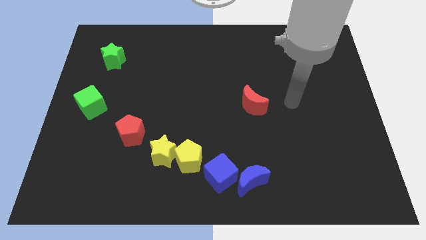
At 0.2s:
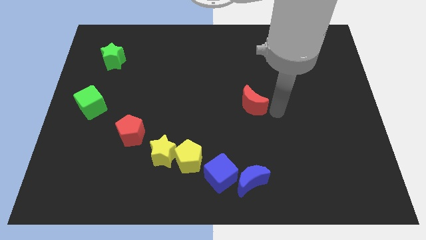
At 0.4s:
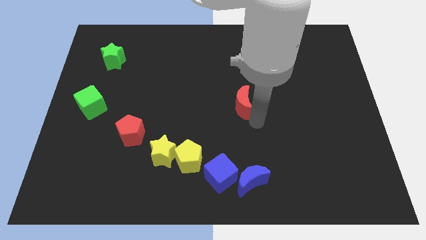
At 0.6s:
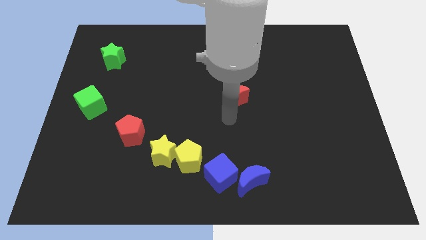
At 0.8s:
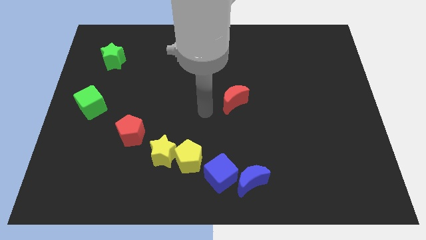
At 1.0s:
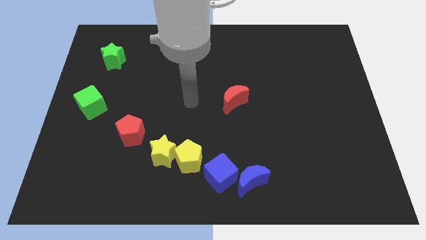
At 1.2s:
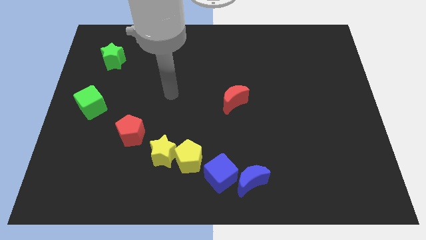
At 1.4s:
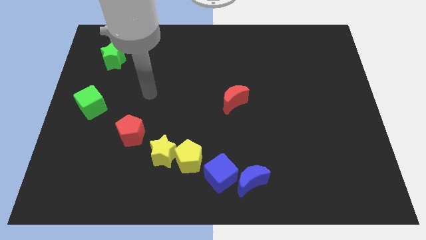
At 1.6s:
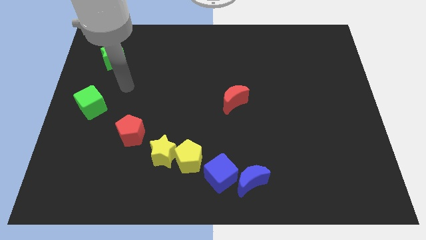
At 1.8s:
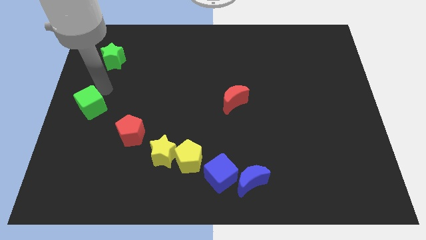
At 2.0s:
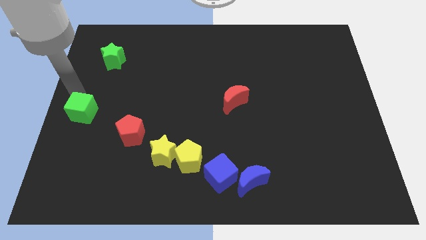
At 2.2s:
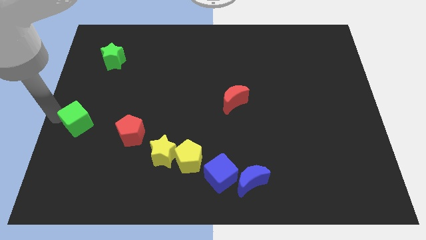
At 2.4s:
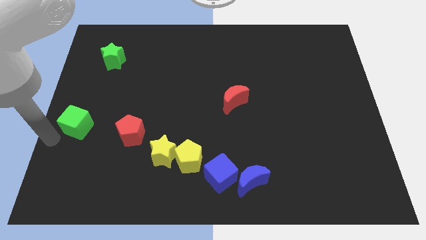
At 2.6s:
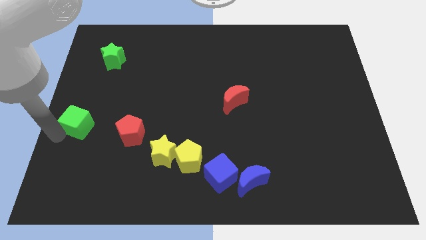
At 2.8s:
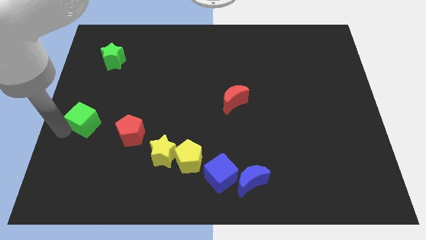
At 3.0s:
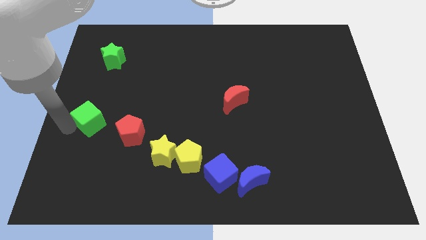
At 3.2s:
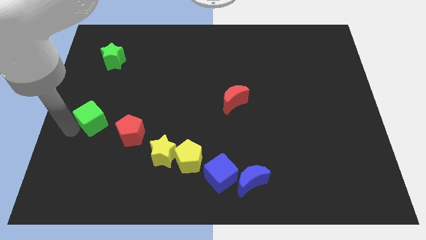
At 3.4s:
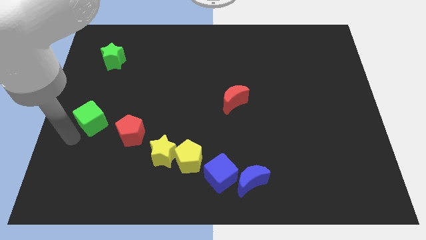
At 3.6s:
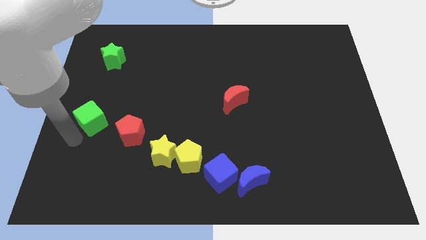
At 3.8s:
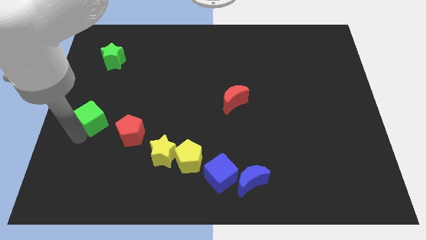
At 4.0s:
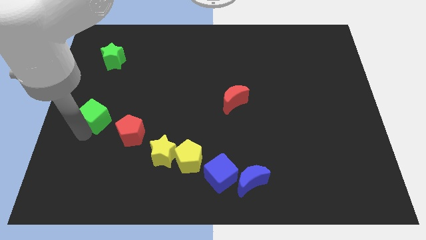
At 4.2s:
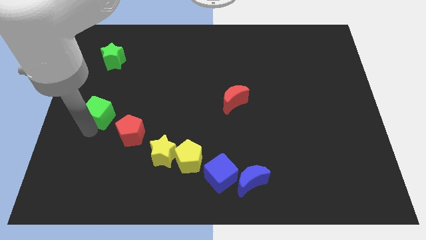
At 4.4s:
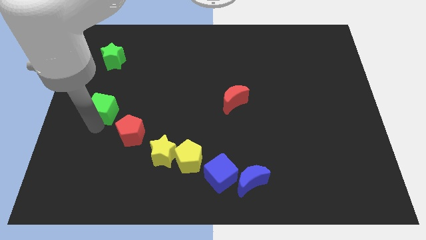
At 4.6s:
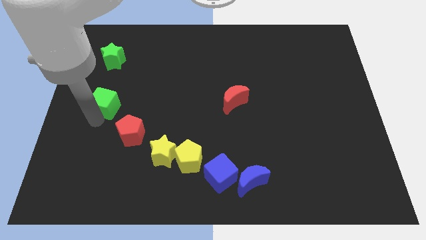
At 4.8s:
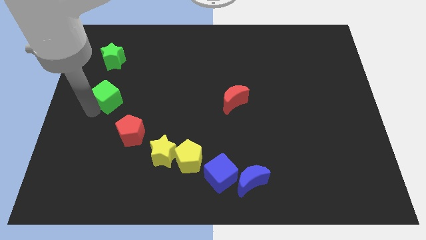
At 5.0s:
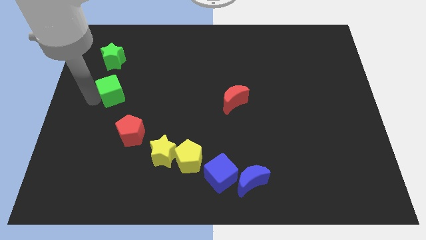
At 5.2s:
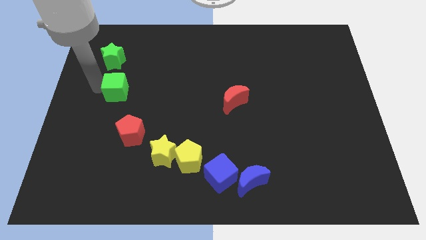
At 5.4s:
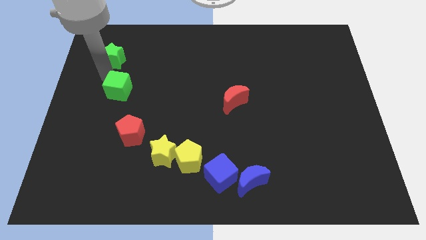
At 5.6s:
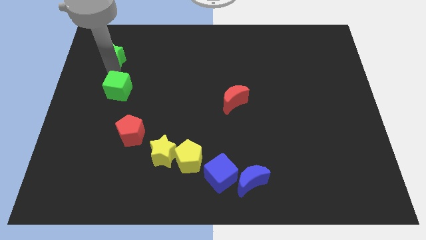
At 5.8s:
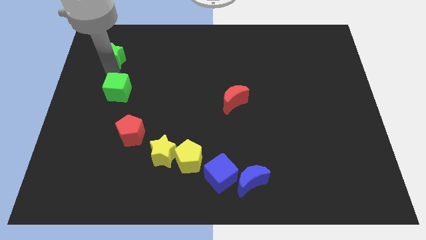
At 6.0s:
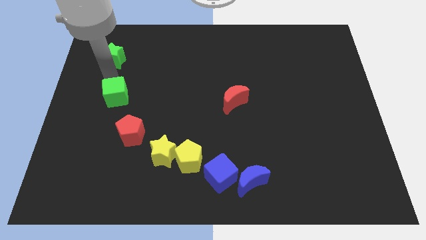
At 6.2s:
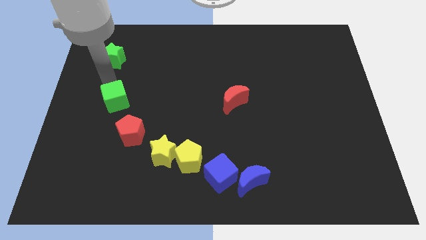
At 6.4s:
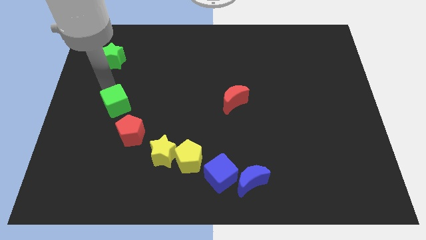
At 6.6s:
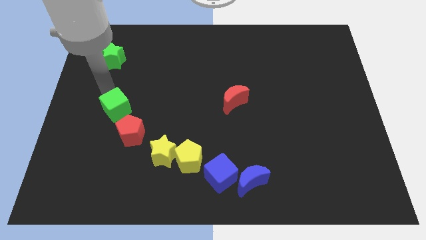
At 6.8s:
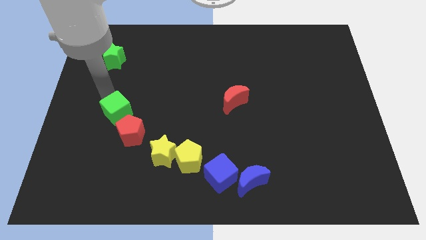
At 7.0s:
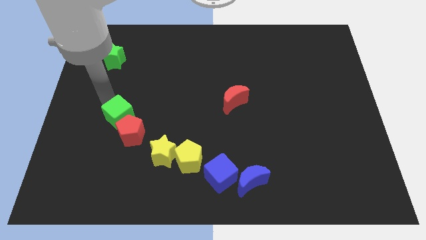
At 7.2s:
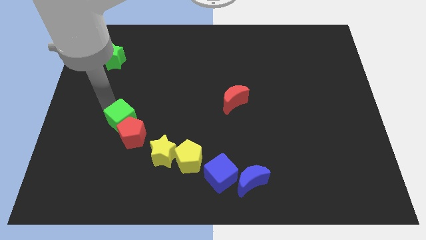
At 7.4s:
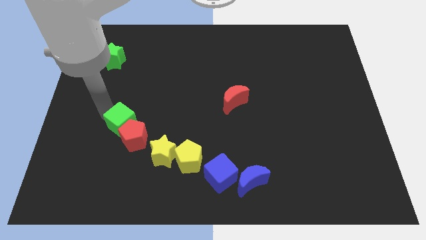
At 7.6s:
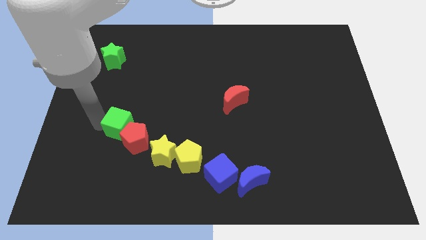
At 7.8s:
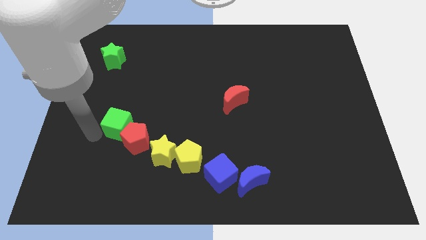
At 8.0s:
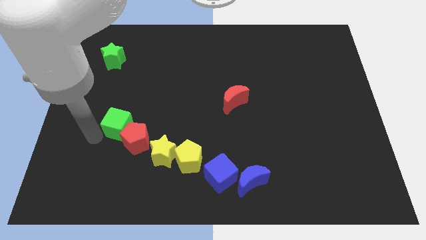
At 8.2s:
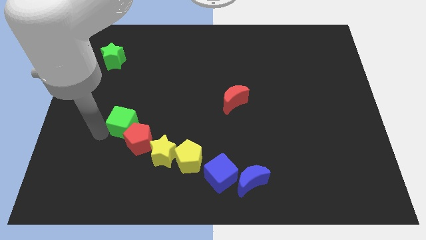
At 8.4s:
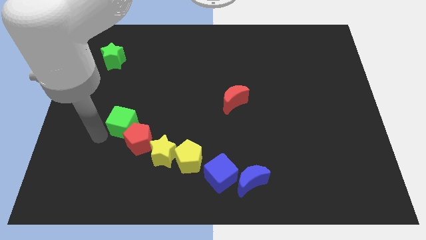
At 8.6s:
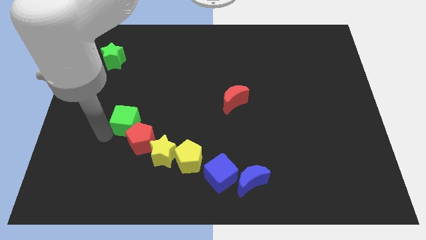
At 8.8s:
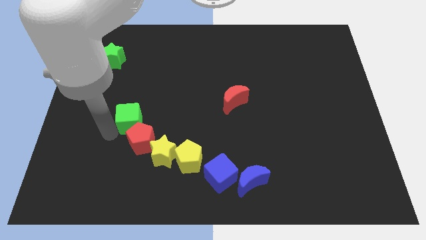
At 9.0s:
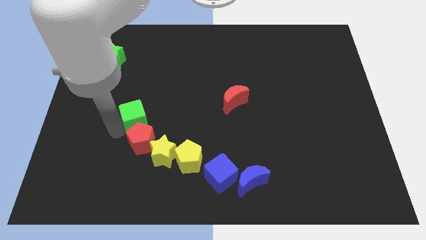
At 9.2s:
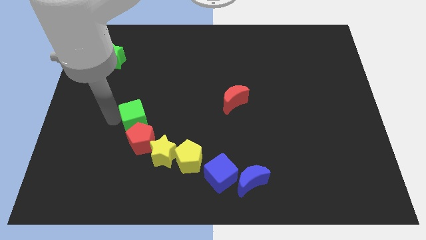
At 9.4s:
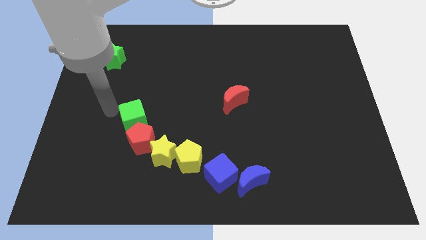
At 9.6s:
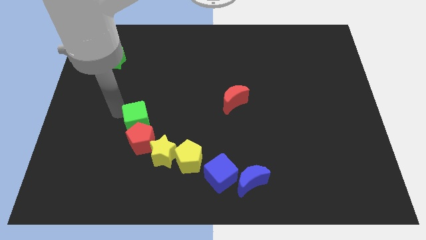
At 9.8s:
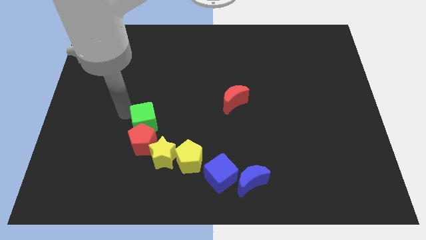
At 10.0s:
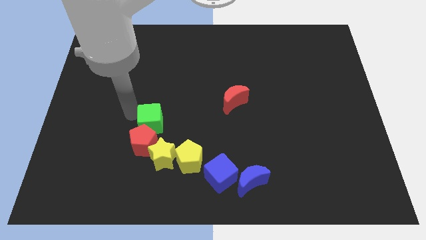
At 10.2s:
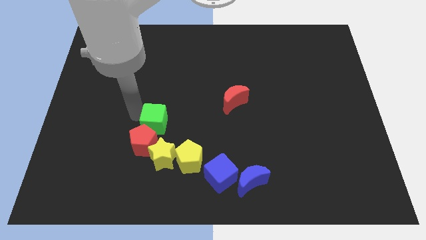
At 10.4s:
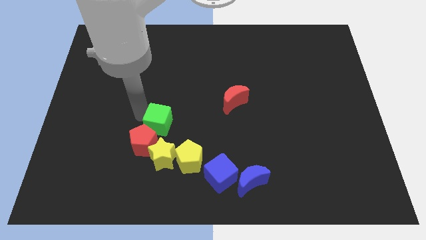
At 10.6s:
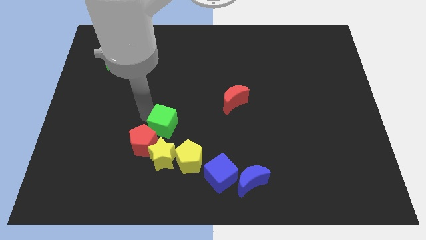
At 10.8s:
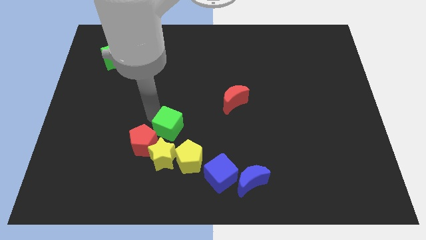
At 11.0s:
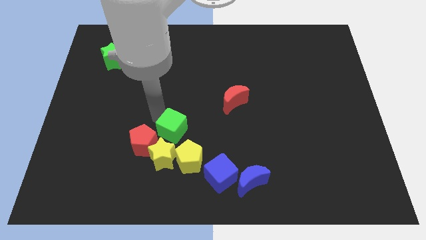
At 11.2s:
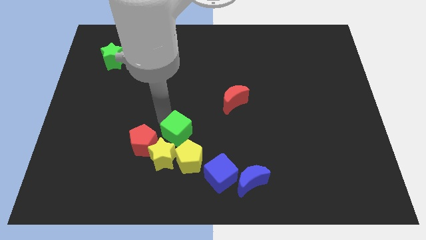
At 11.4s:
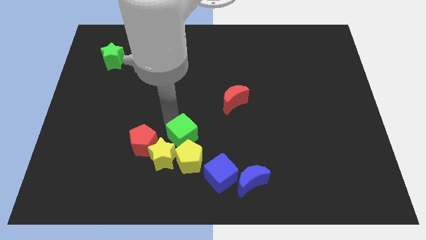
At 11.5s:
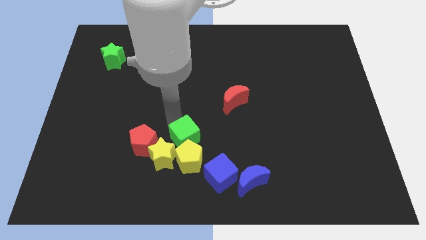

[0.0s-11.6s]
put the green cube next to the yellow pentagon
